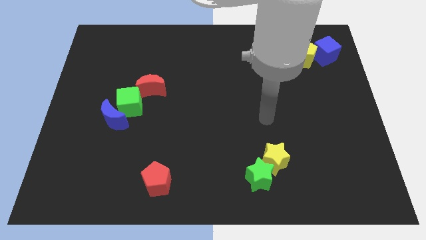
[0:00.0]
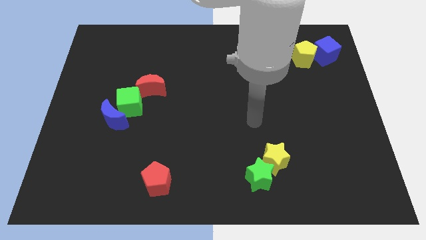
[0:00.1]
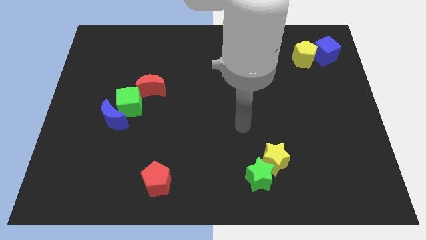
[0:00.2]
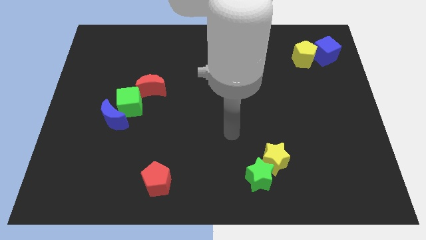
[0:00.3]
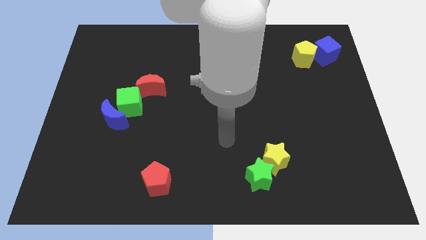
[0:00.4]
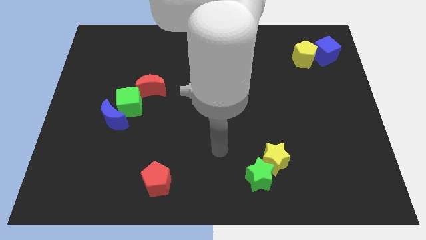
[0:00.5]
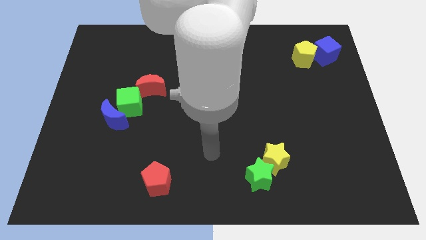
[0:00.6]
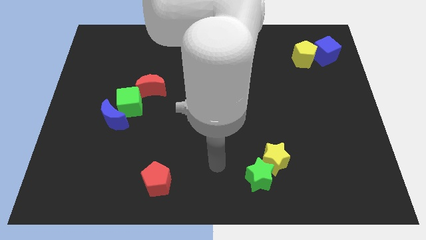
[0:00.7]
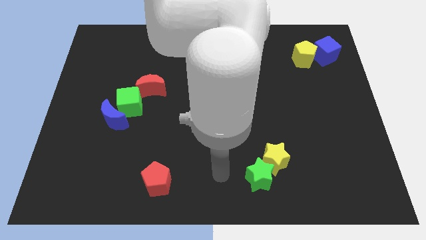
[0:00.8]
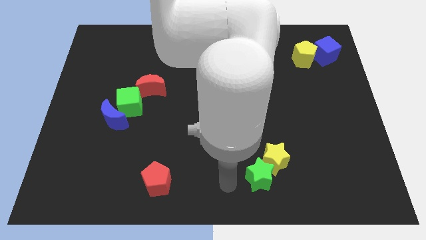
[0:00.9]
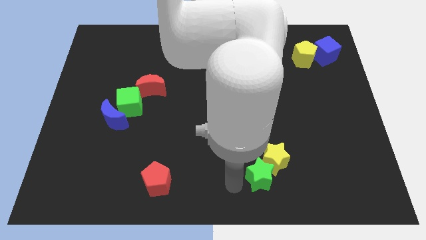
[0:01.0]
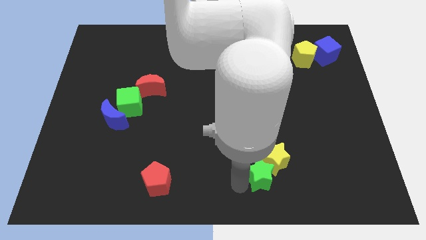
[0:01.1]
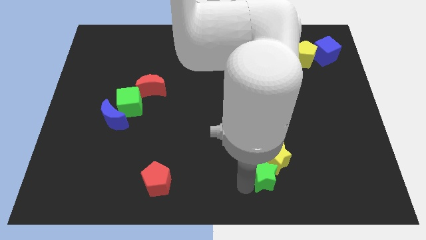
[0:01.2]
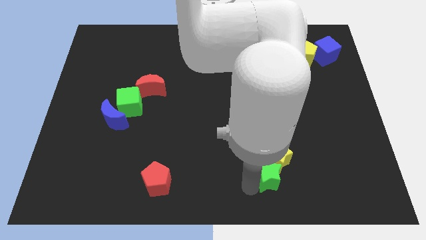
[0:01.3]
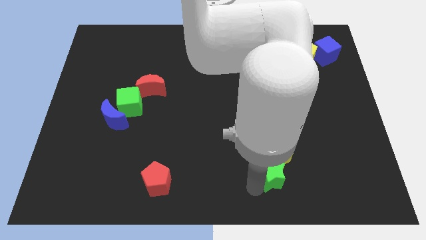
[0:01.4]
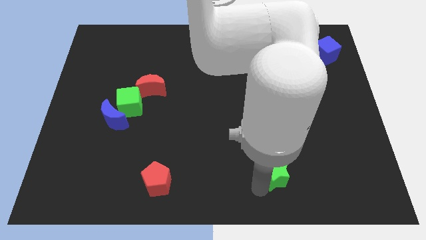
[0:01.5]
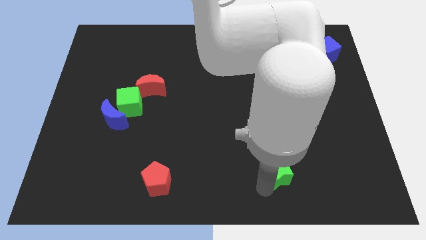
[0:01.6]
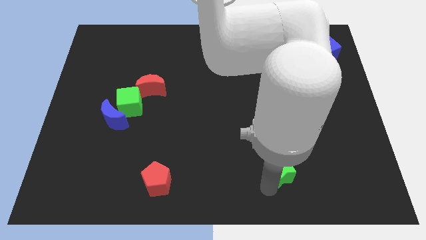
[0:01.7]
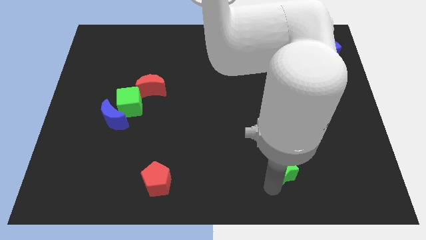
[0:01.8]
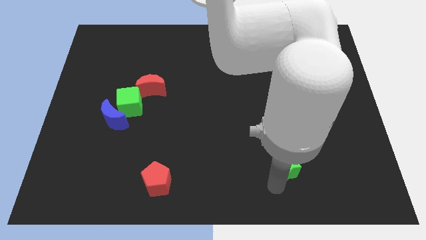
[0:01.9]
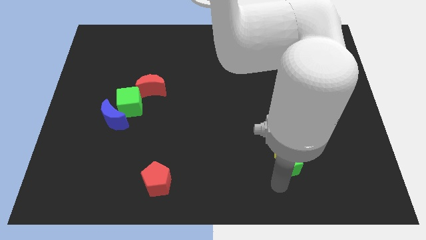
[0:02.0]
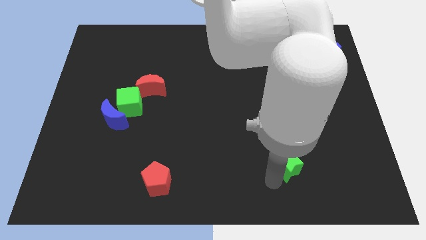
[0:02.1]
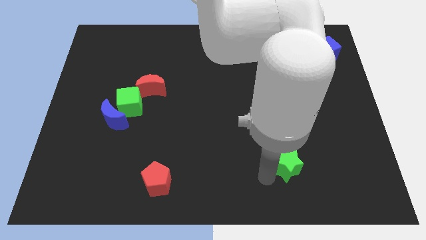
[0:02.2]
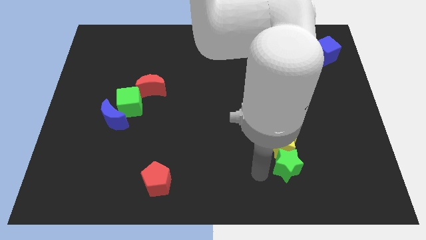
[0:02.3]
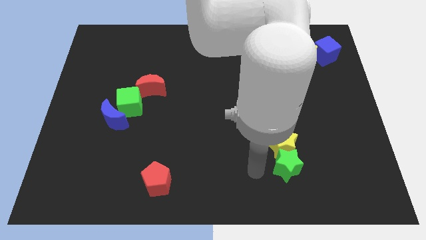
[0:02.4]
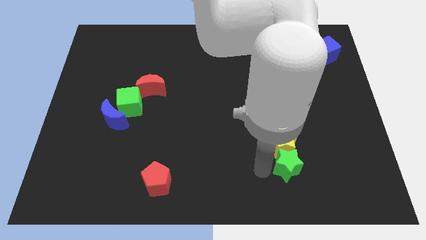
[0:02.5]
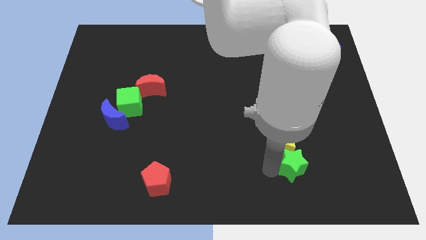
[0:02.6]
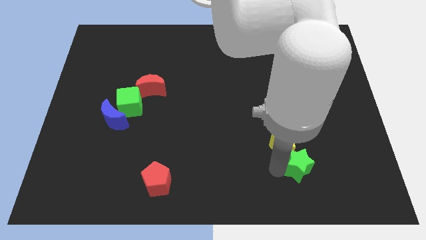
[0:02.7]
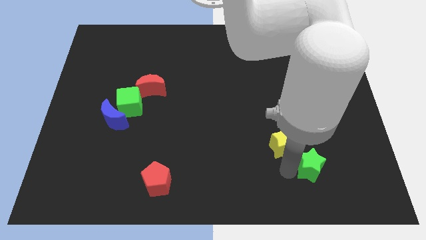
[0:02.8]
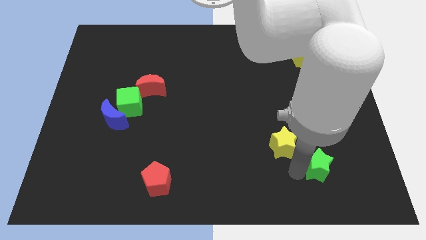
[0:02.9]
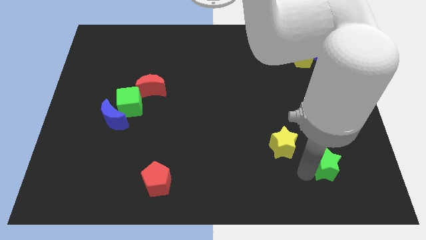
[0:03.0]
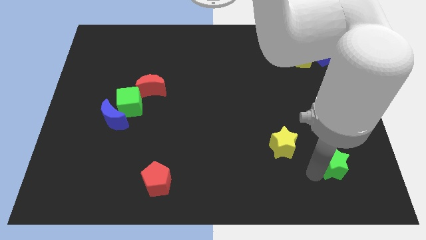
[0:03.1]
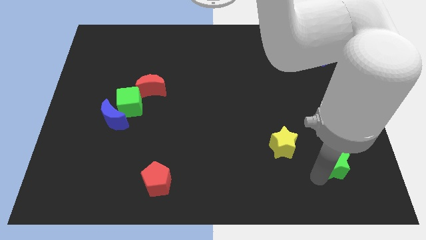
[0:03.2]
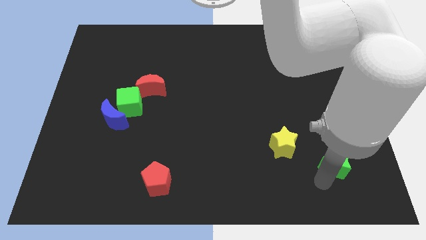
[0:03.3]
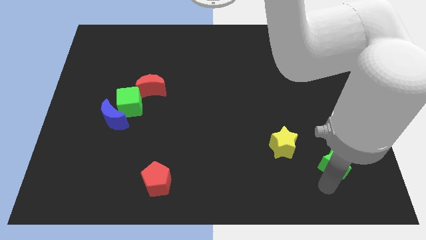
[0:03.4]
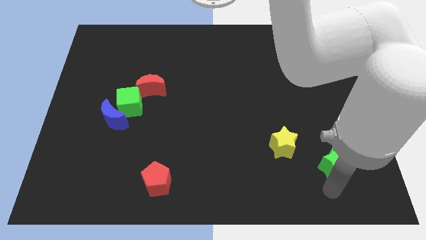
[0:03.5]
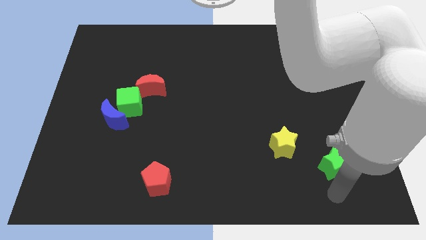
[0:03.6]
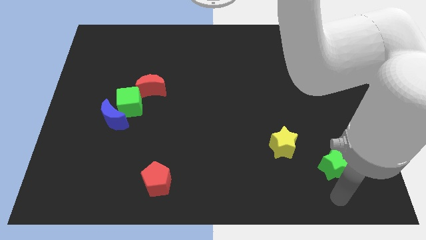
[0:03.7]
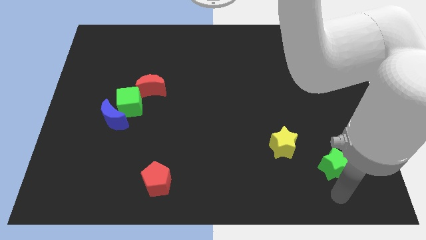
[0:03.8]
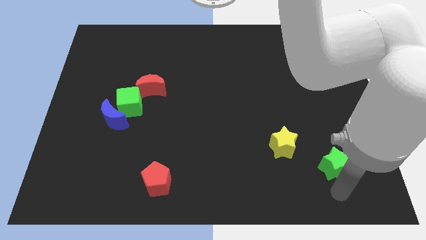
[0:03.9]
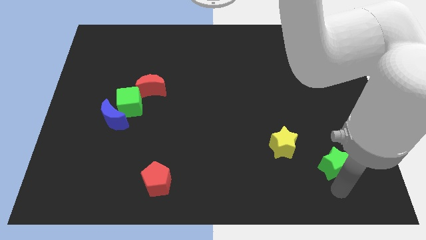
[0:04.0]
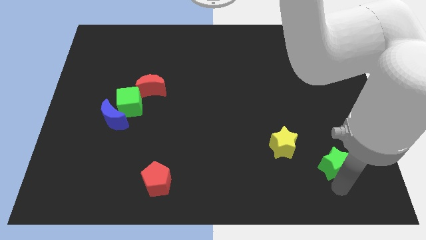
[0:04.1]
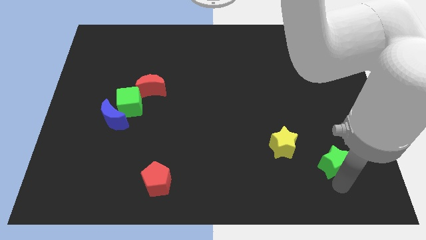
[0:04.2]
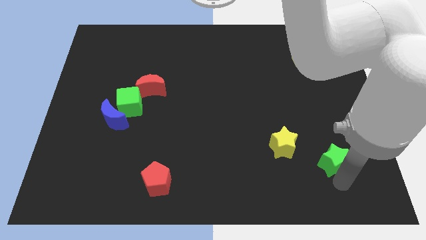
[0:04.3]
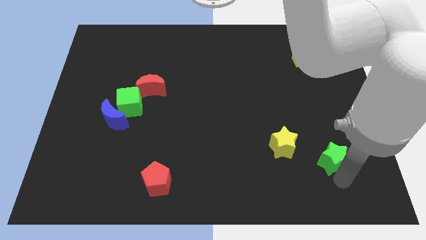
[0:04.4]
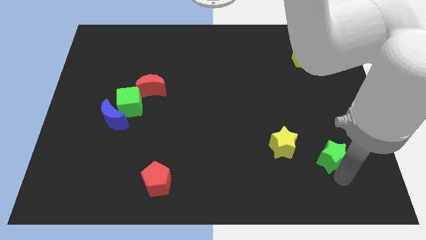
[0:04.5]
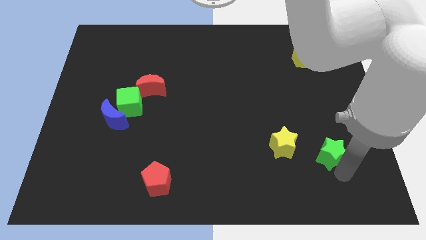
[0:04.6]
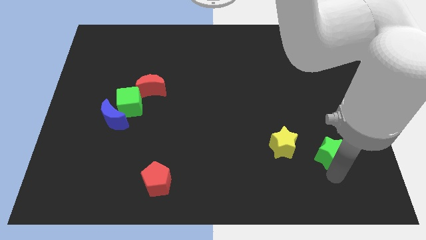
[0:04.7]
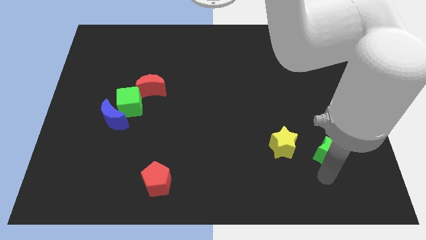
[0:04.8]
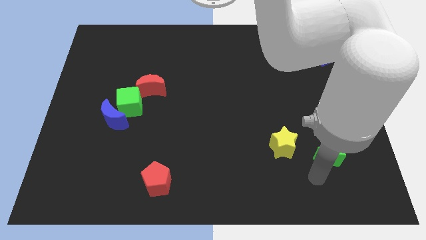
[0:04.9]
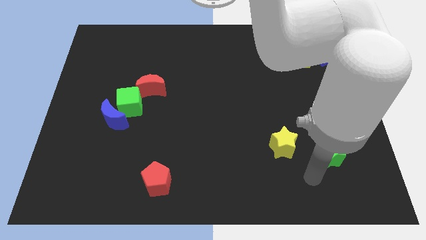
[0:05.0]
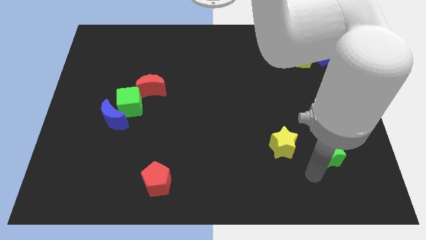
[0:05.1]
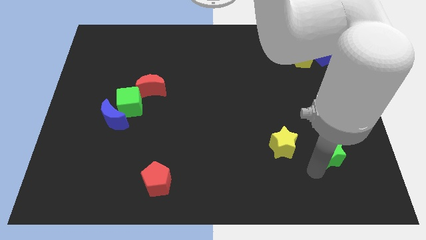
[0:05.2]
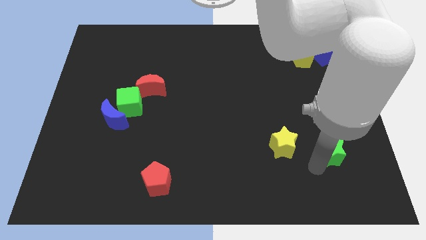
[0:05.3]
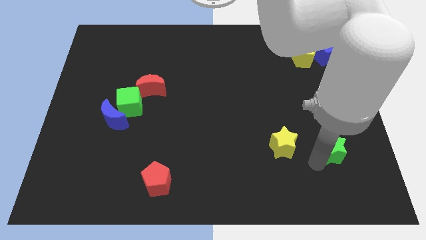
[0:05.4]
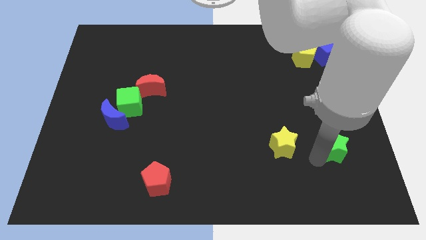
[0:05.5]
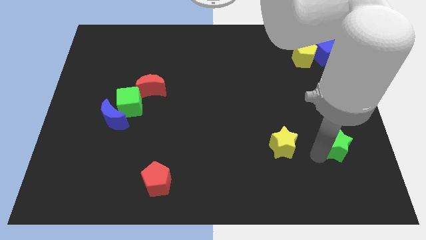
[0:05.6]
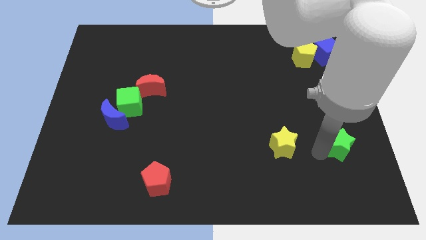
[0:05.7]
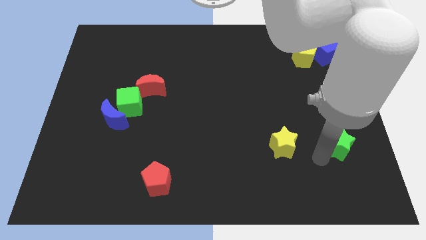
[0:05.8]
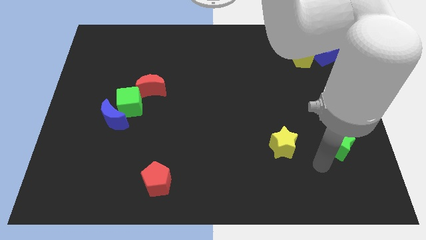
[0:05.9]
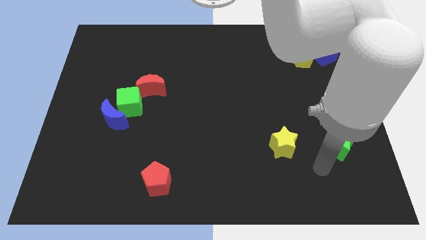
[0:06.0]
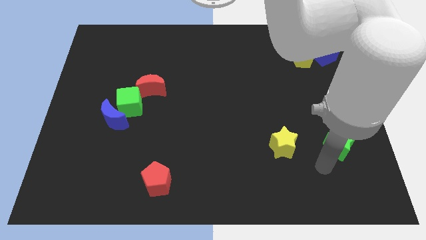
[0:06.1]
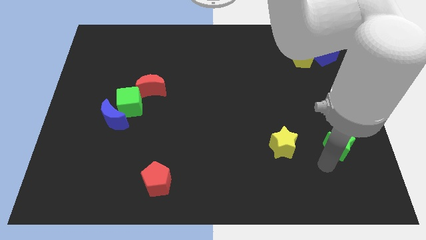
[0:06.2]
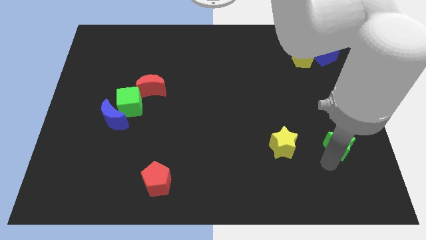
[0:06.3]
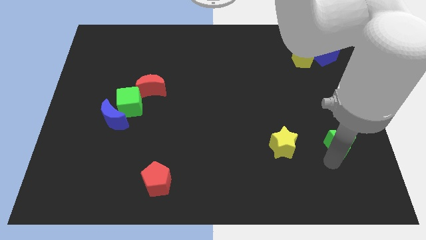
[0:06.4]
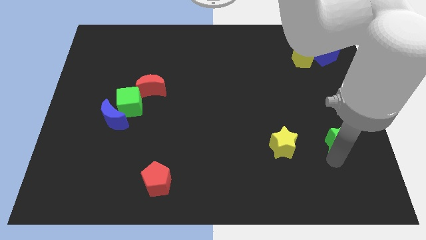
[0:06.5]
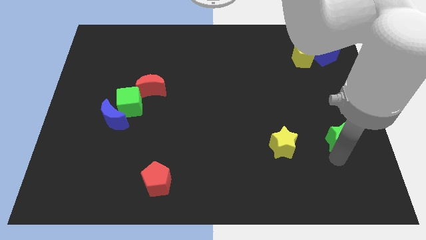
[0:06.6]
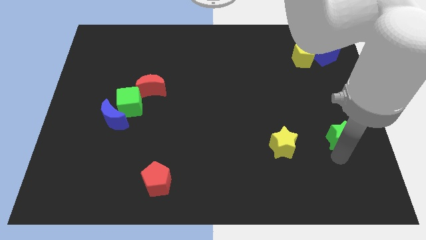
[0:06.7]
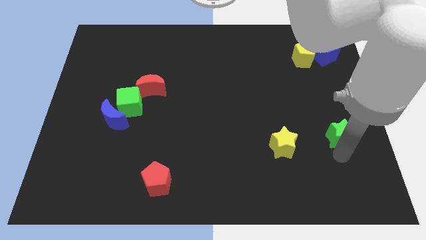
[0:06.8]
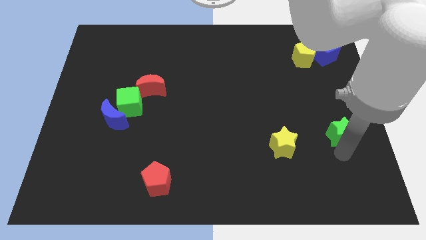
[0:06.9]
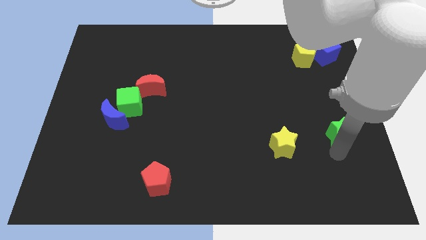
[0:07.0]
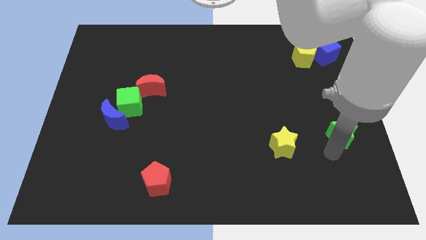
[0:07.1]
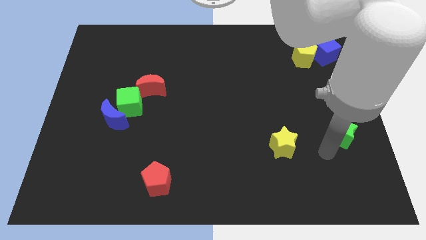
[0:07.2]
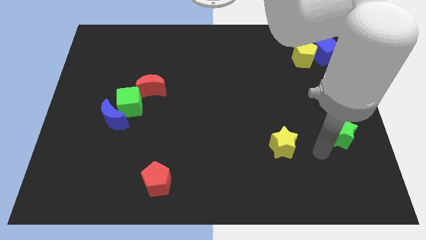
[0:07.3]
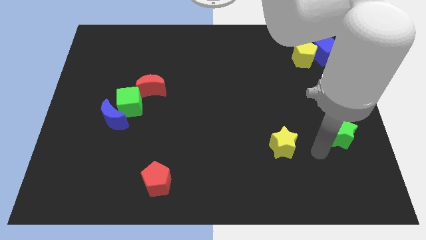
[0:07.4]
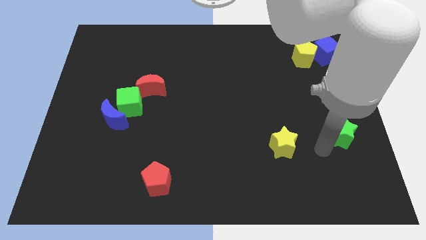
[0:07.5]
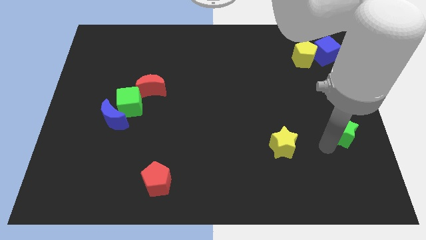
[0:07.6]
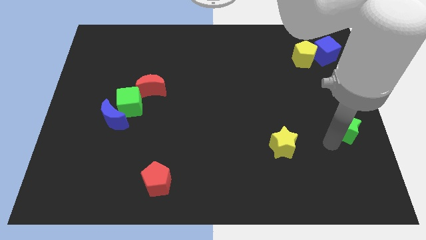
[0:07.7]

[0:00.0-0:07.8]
push the green star to the right side of the board
